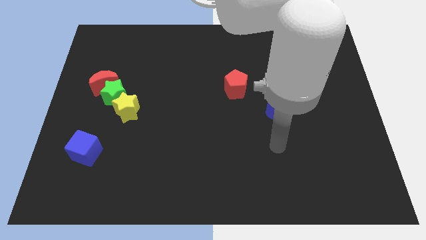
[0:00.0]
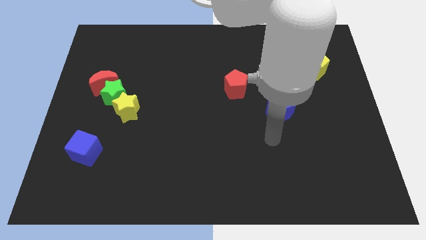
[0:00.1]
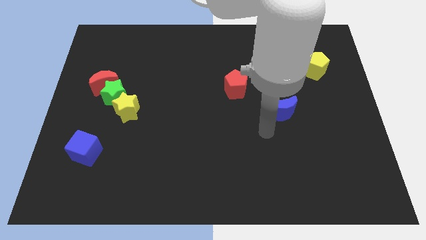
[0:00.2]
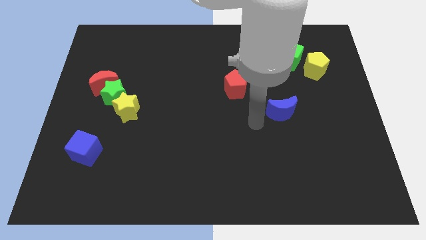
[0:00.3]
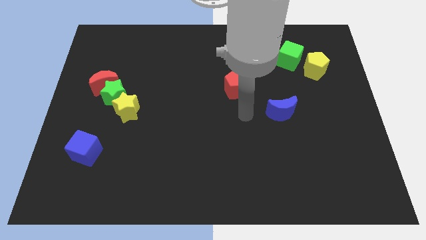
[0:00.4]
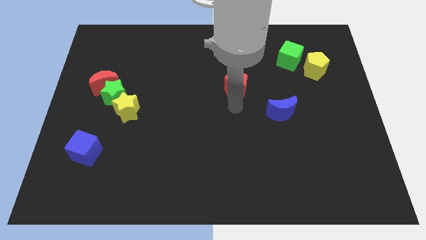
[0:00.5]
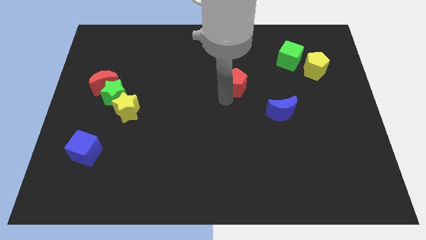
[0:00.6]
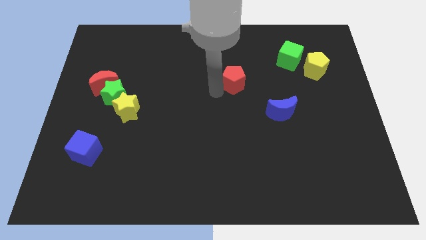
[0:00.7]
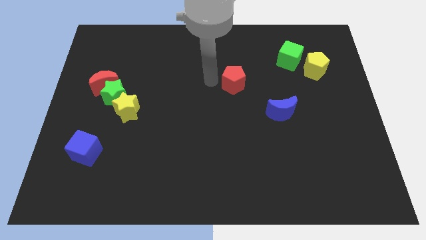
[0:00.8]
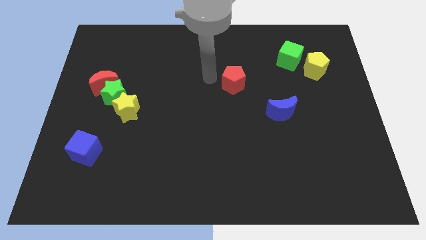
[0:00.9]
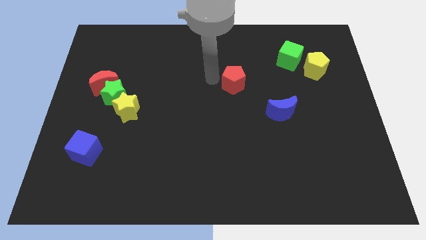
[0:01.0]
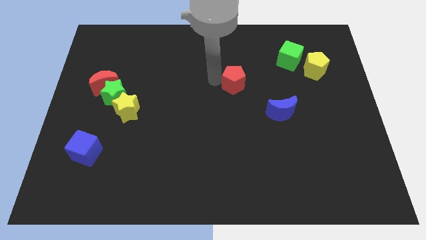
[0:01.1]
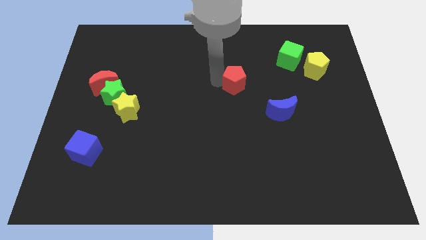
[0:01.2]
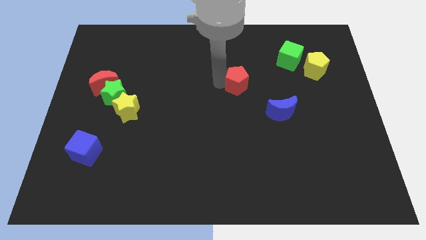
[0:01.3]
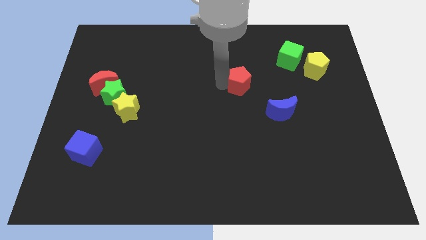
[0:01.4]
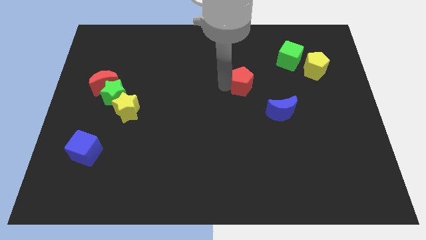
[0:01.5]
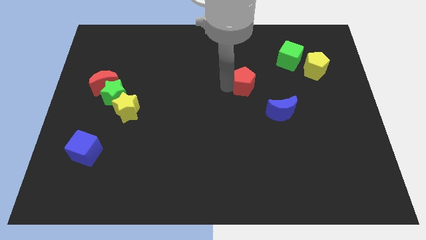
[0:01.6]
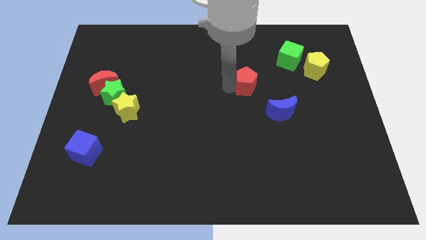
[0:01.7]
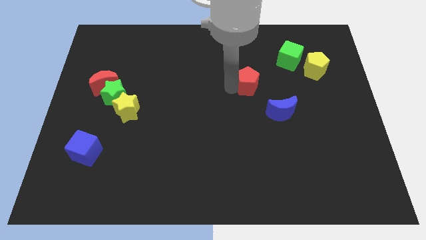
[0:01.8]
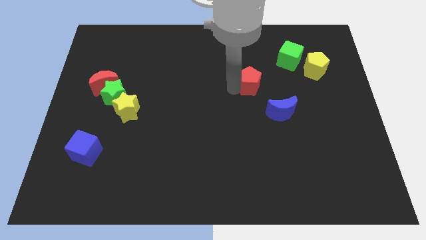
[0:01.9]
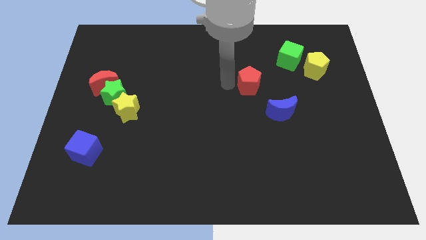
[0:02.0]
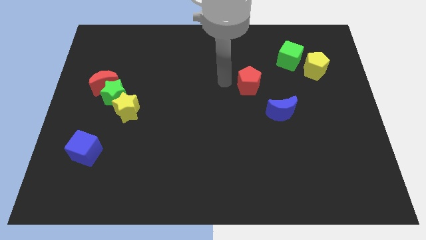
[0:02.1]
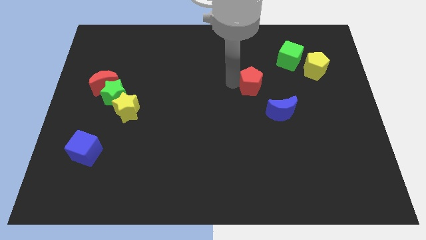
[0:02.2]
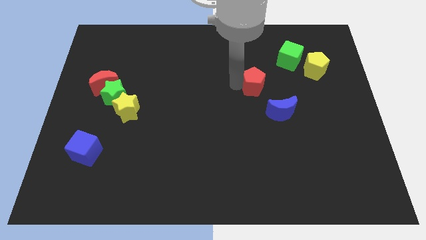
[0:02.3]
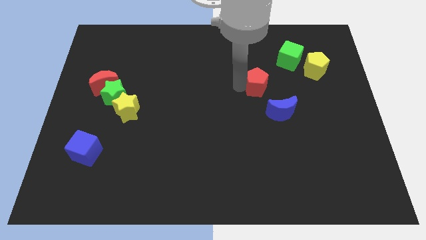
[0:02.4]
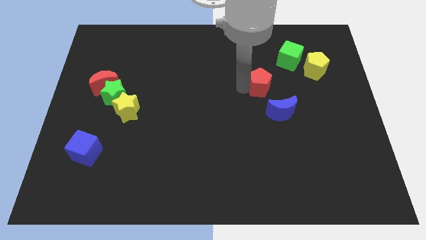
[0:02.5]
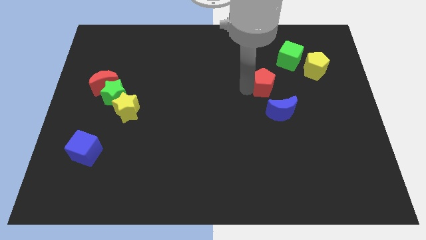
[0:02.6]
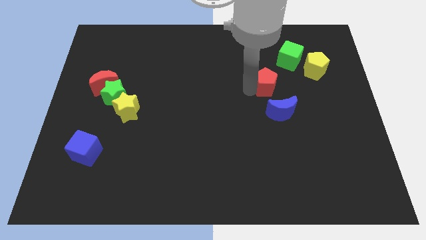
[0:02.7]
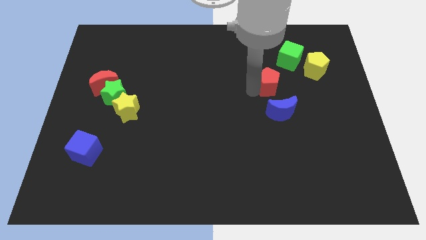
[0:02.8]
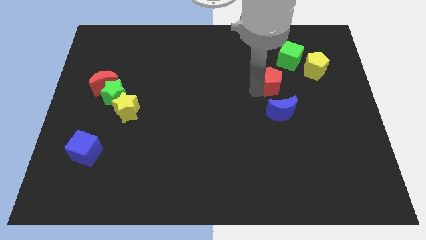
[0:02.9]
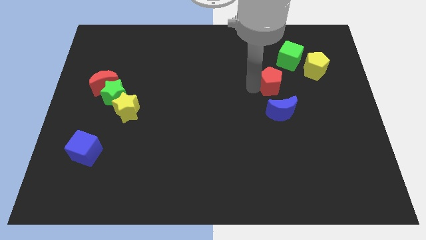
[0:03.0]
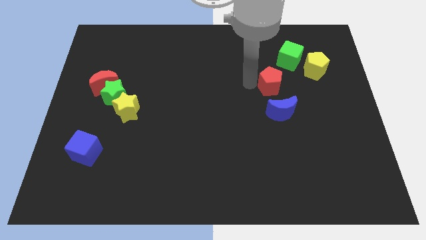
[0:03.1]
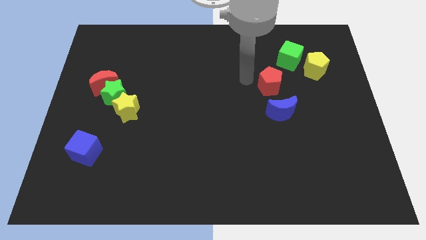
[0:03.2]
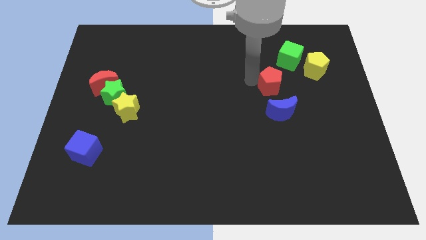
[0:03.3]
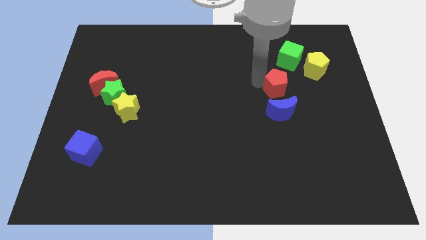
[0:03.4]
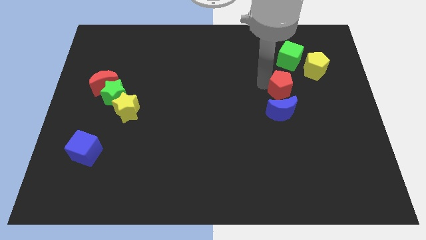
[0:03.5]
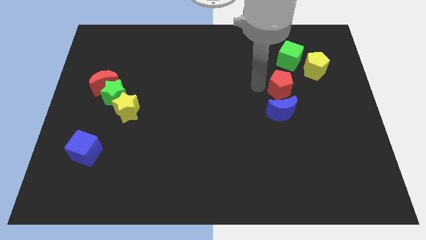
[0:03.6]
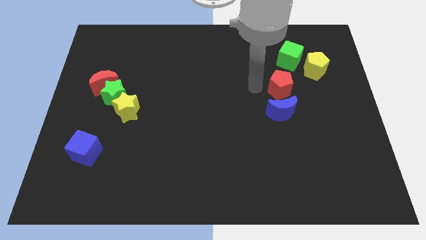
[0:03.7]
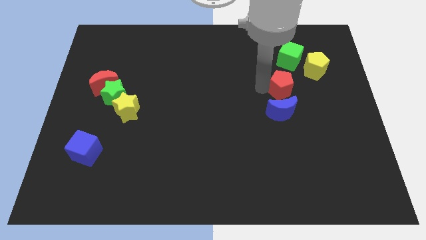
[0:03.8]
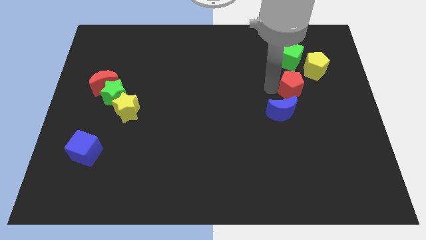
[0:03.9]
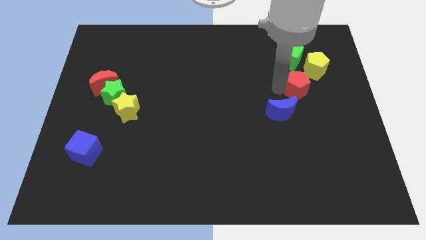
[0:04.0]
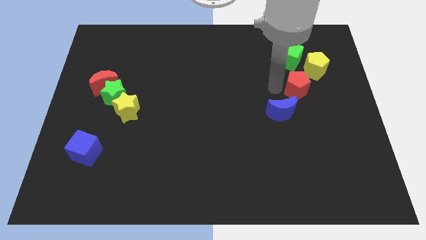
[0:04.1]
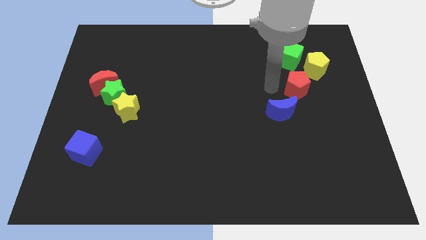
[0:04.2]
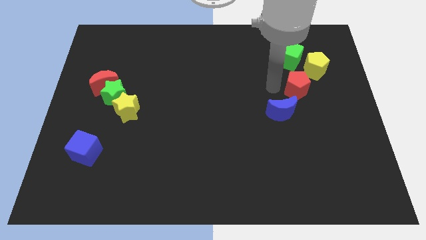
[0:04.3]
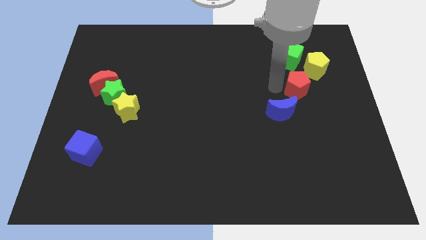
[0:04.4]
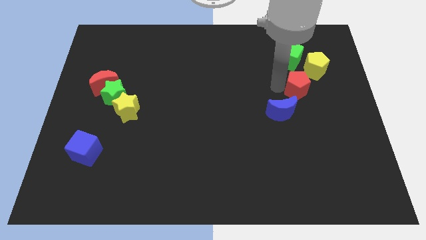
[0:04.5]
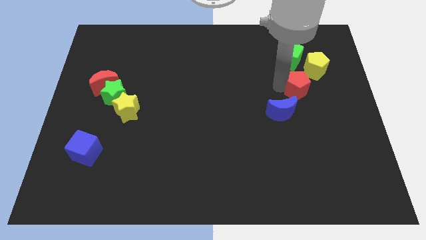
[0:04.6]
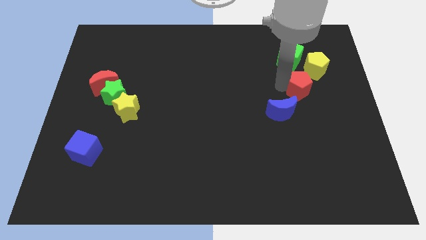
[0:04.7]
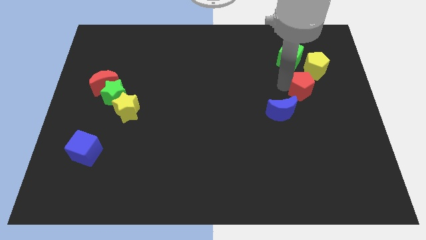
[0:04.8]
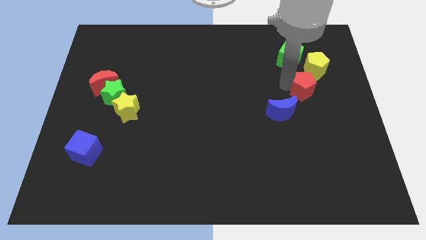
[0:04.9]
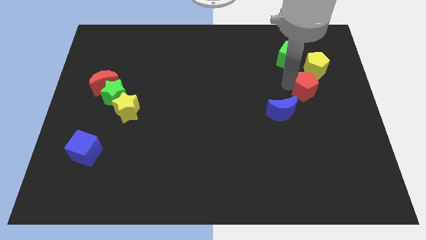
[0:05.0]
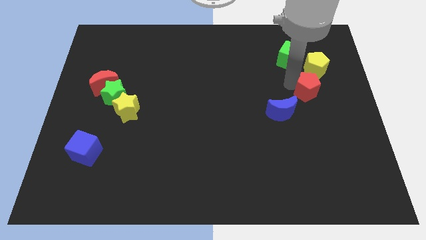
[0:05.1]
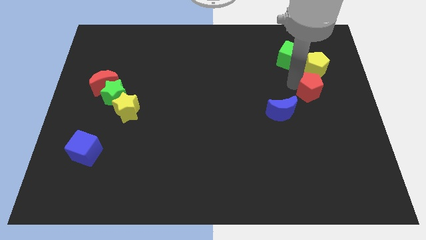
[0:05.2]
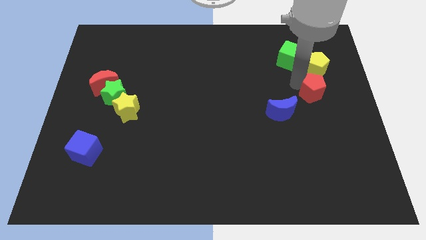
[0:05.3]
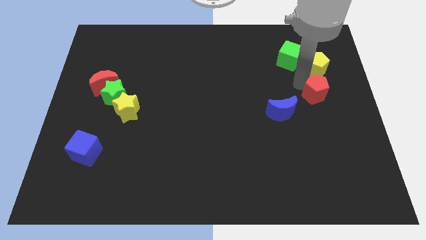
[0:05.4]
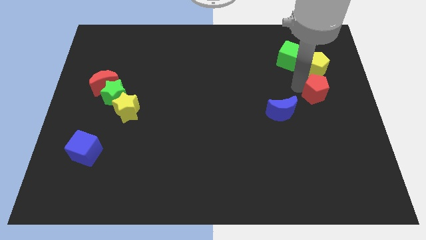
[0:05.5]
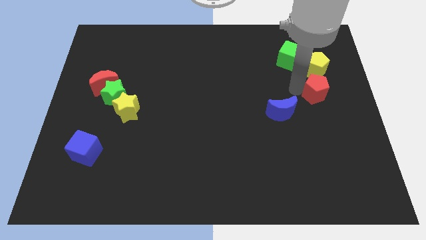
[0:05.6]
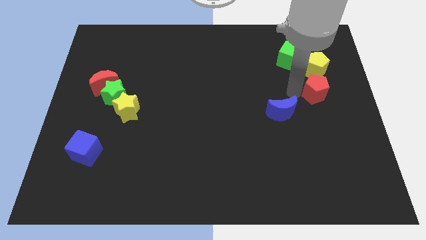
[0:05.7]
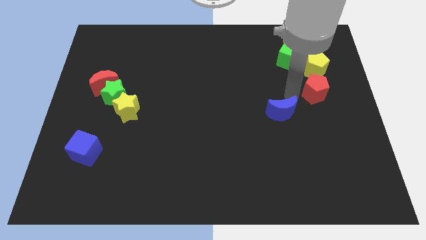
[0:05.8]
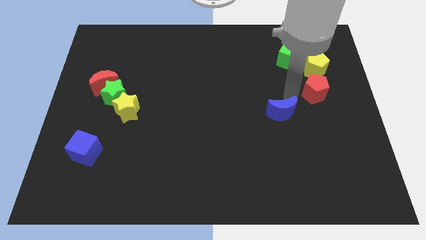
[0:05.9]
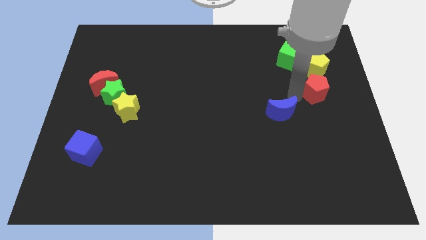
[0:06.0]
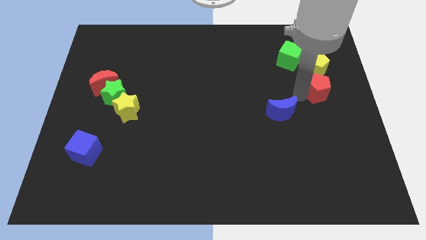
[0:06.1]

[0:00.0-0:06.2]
slide the red pentagon to the right side of the board
